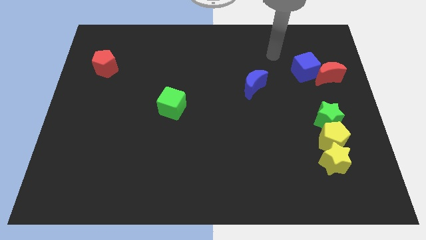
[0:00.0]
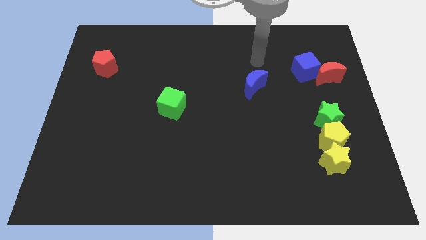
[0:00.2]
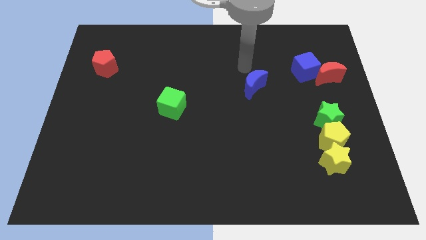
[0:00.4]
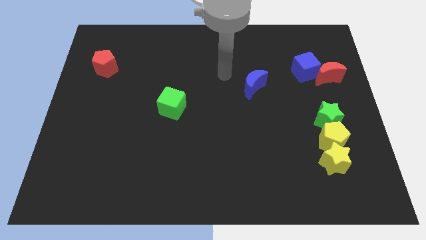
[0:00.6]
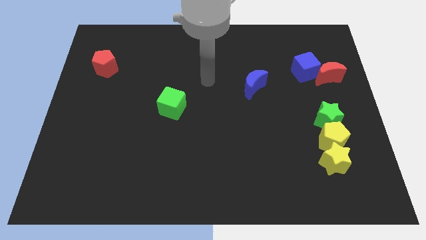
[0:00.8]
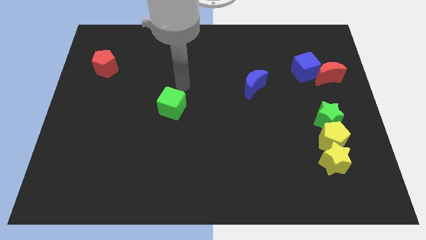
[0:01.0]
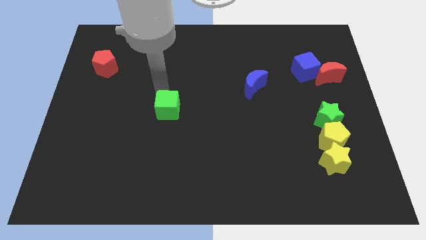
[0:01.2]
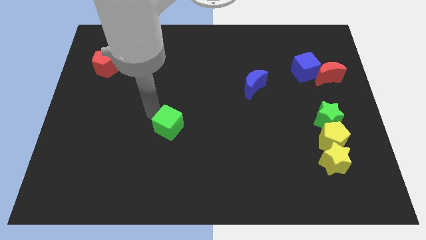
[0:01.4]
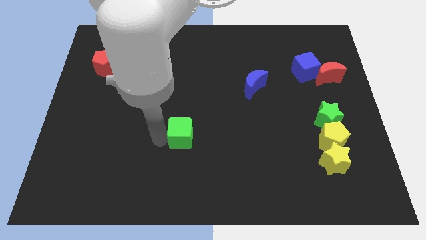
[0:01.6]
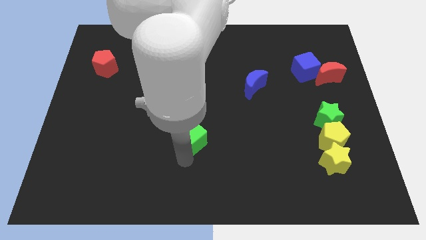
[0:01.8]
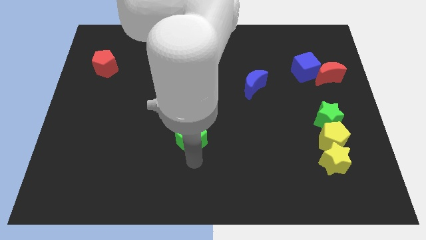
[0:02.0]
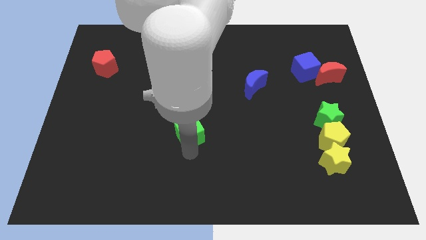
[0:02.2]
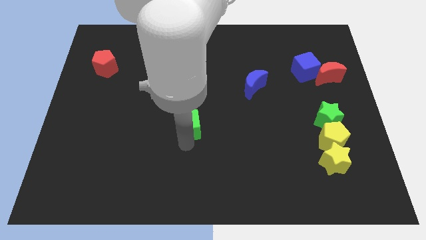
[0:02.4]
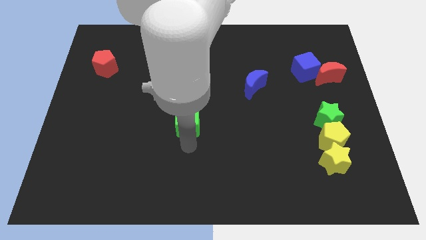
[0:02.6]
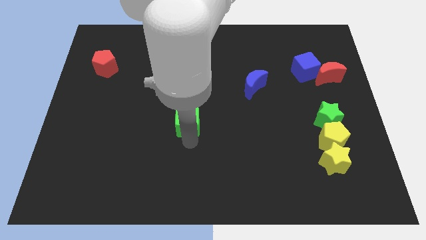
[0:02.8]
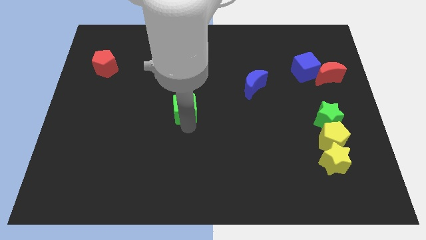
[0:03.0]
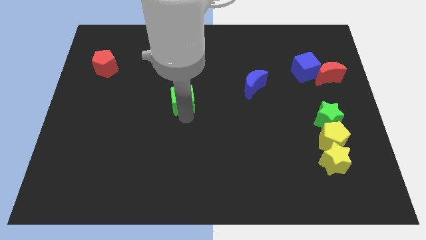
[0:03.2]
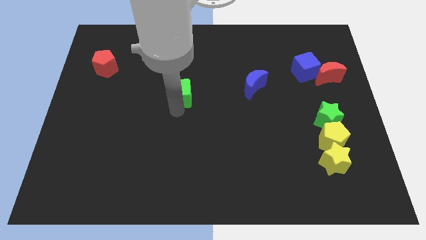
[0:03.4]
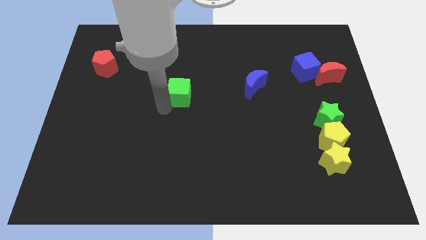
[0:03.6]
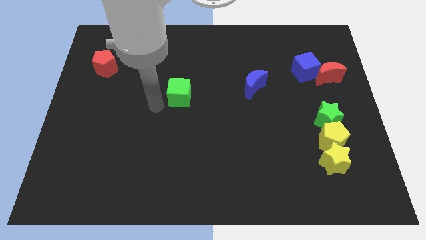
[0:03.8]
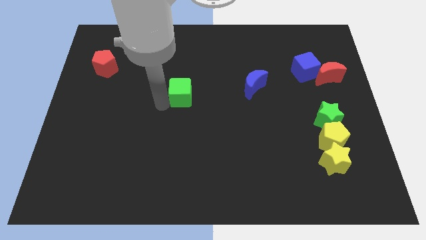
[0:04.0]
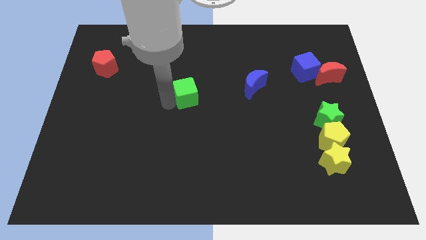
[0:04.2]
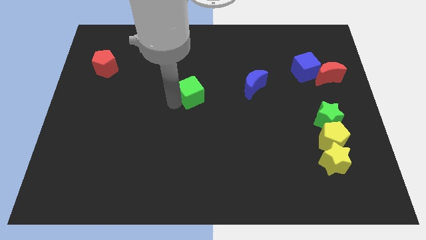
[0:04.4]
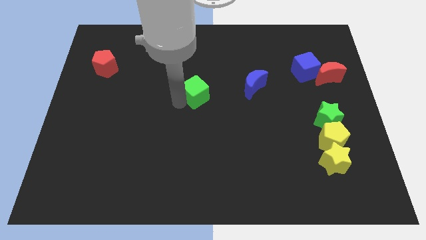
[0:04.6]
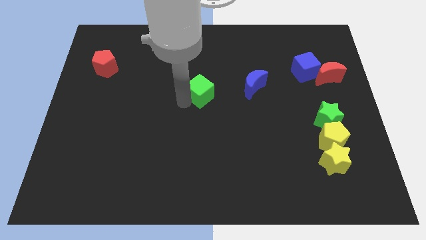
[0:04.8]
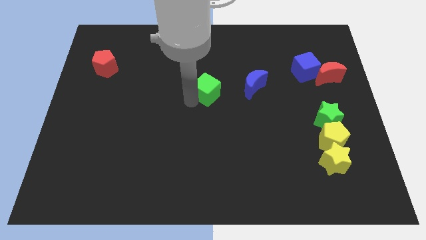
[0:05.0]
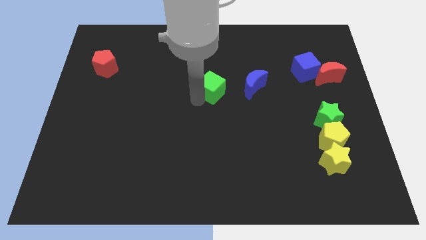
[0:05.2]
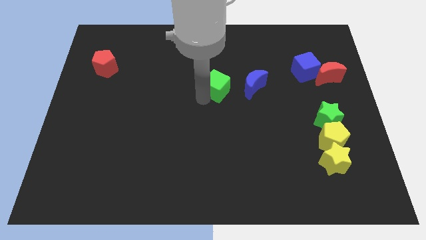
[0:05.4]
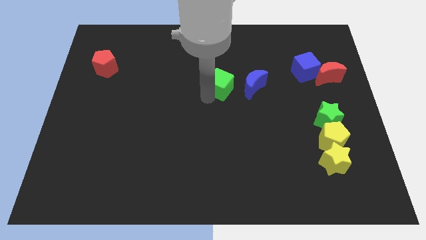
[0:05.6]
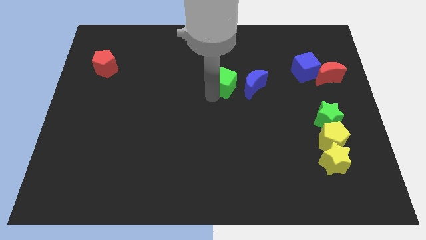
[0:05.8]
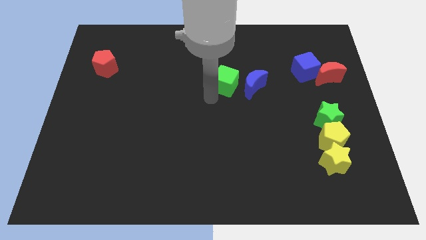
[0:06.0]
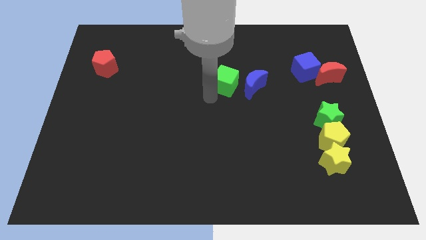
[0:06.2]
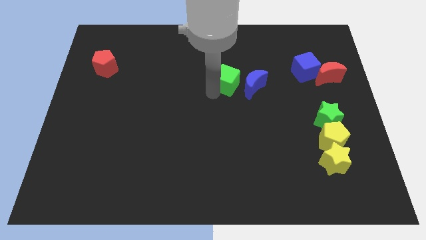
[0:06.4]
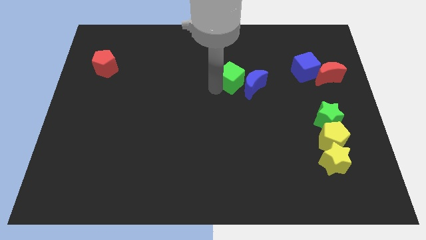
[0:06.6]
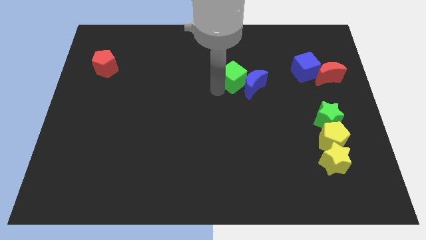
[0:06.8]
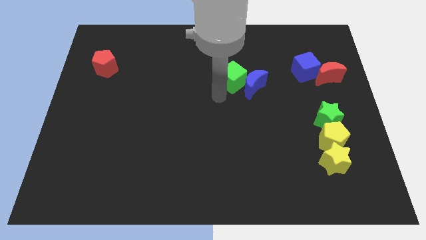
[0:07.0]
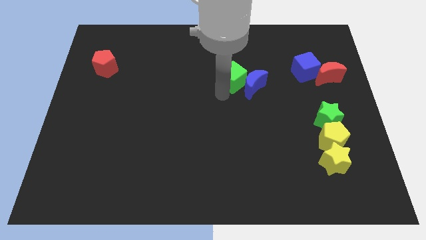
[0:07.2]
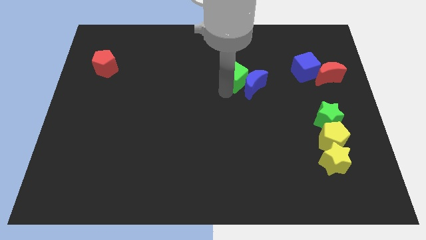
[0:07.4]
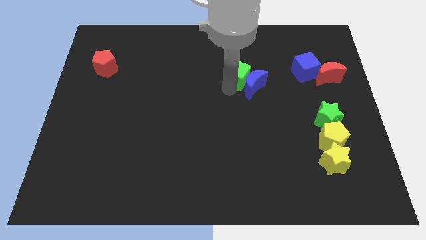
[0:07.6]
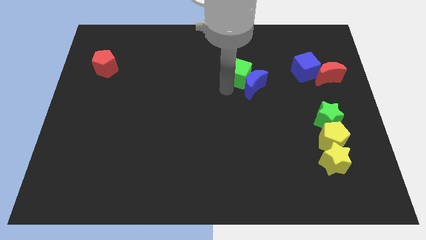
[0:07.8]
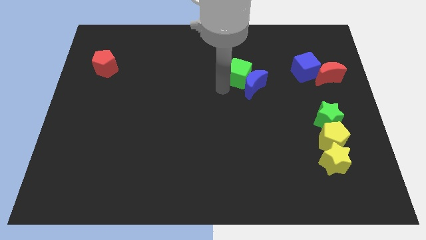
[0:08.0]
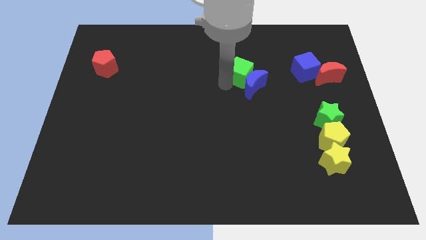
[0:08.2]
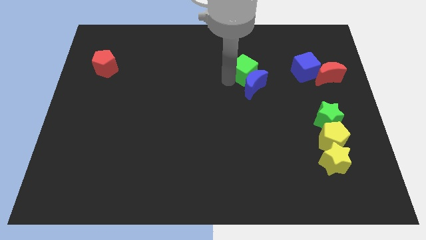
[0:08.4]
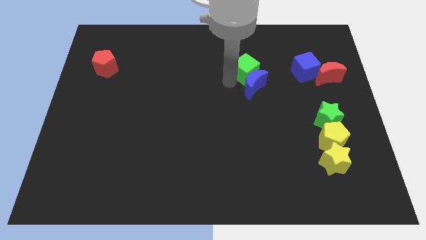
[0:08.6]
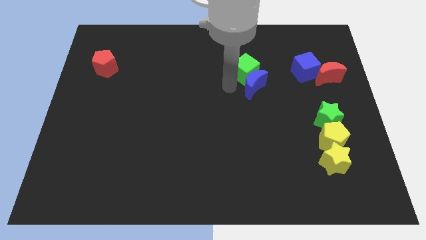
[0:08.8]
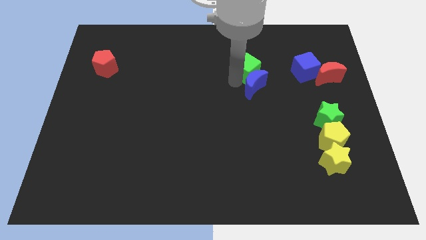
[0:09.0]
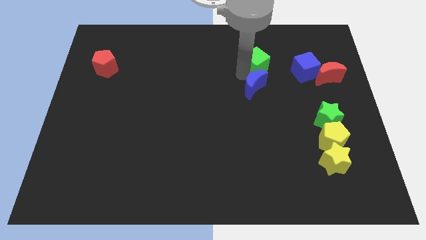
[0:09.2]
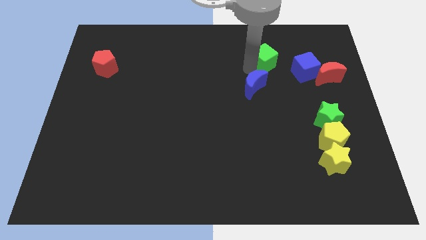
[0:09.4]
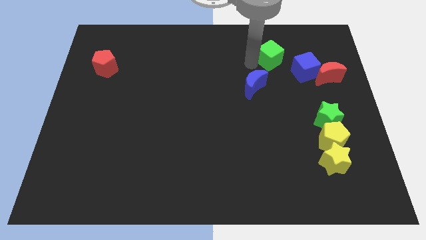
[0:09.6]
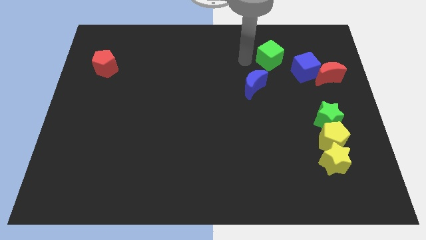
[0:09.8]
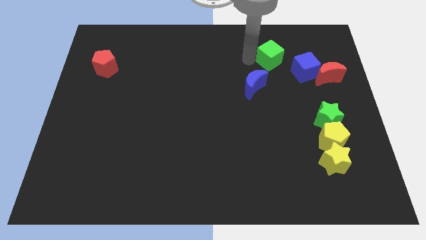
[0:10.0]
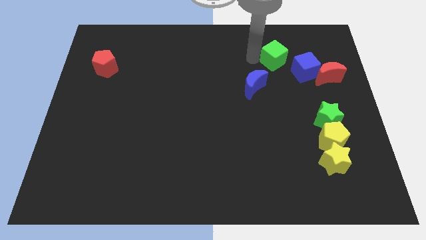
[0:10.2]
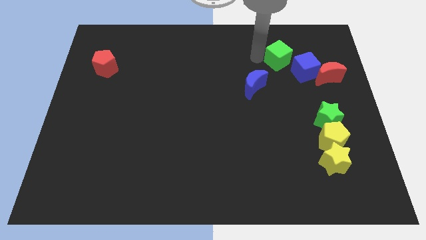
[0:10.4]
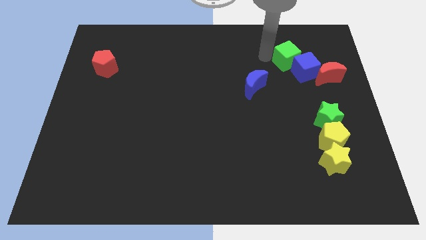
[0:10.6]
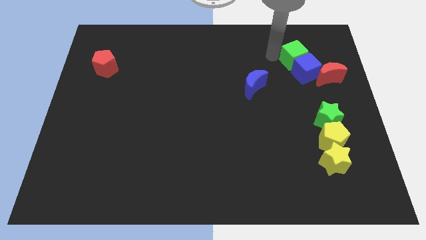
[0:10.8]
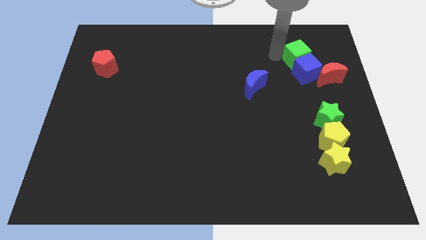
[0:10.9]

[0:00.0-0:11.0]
push the green cube to the top right of the blue cube

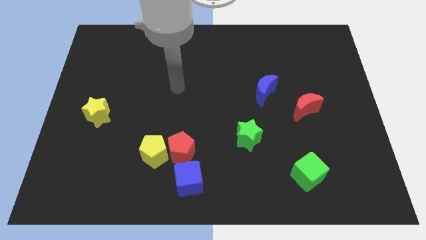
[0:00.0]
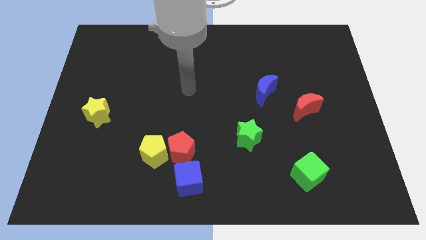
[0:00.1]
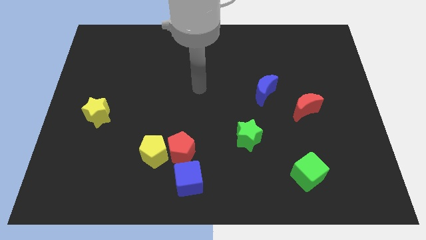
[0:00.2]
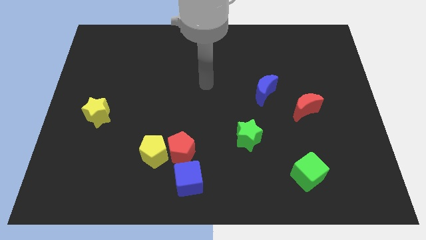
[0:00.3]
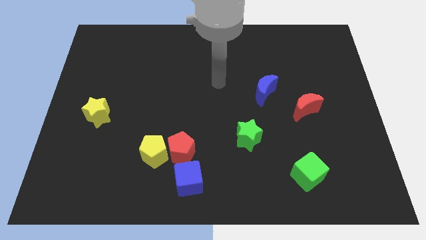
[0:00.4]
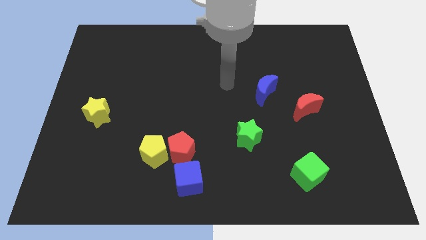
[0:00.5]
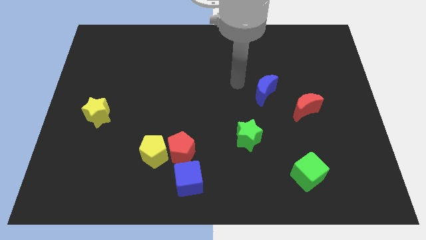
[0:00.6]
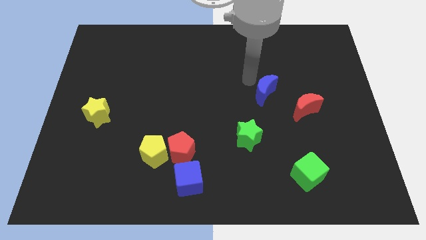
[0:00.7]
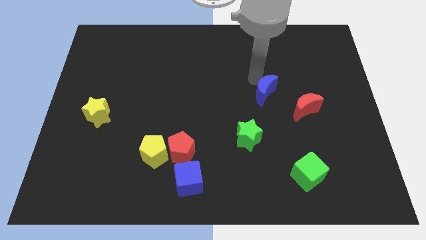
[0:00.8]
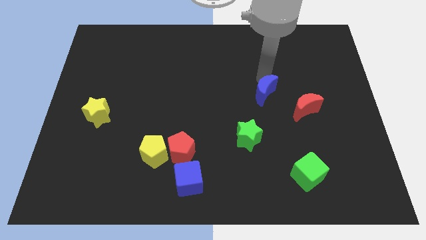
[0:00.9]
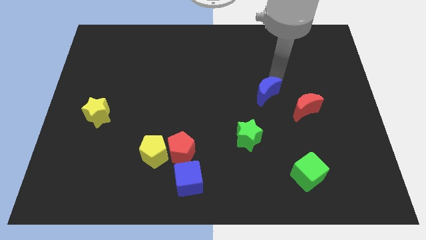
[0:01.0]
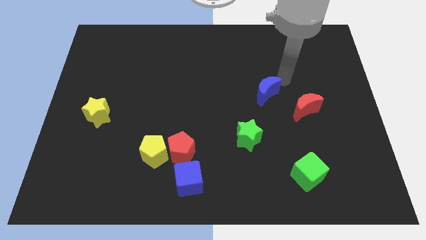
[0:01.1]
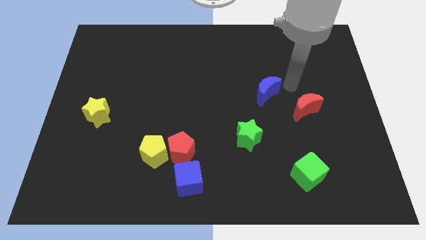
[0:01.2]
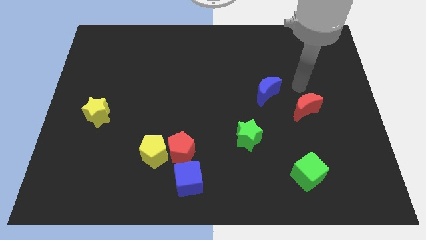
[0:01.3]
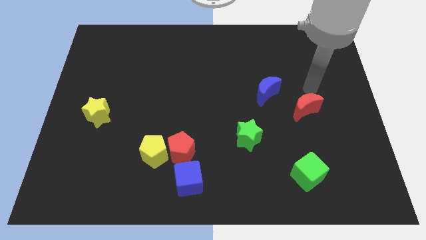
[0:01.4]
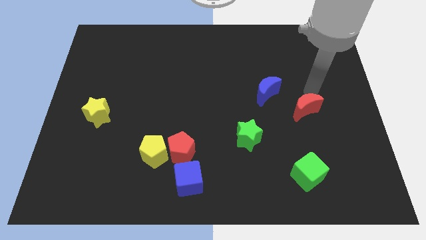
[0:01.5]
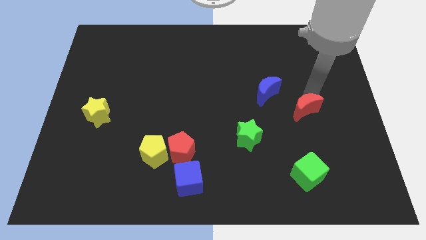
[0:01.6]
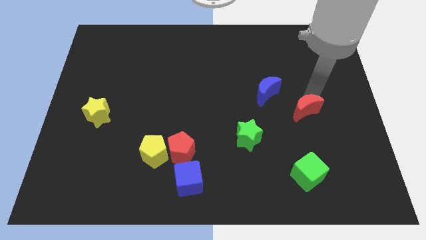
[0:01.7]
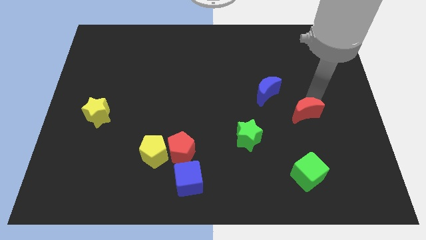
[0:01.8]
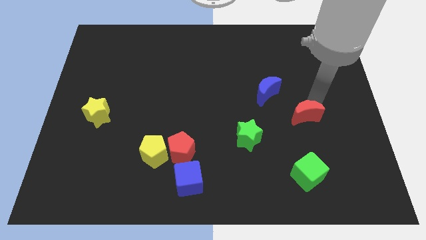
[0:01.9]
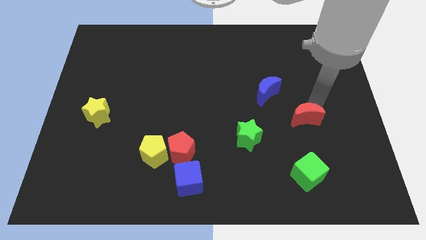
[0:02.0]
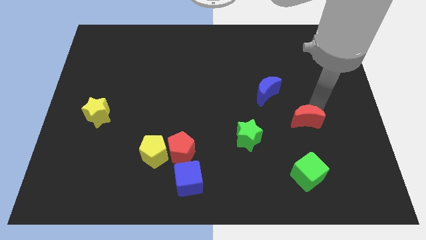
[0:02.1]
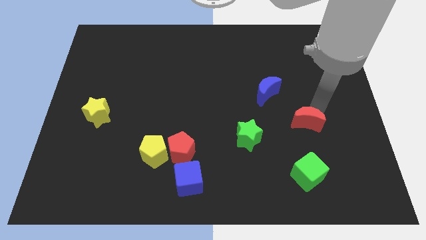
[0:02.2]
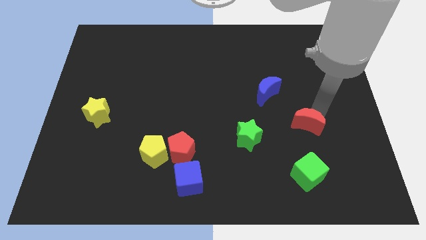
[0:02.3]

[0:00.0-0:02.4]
put the red moon just right of the green star
